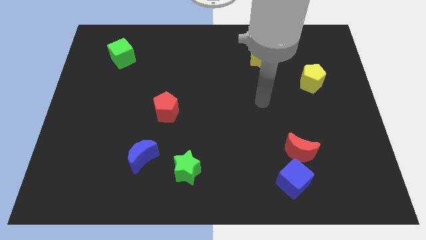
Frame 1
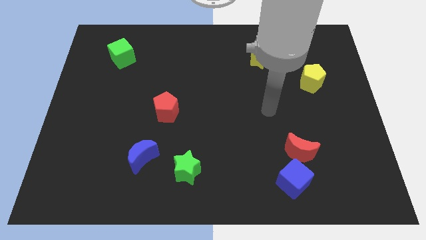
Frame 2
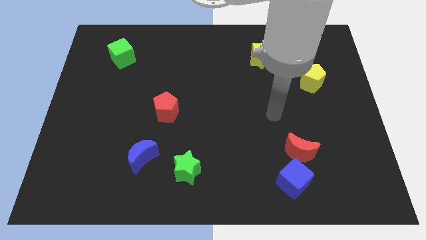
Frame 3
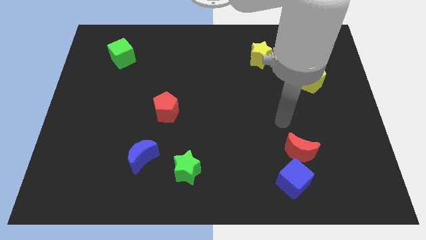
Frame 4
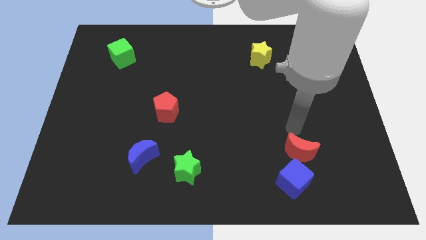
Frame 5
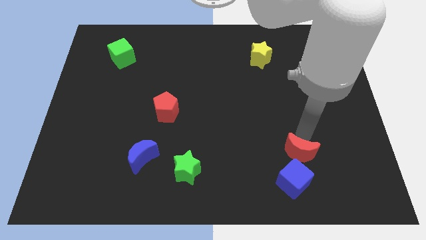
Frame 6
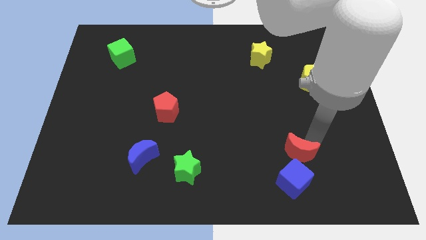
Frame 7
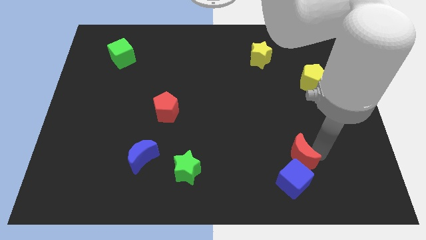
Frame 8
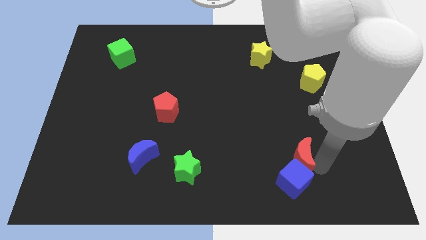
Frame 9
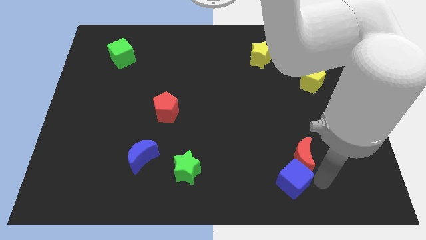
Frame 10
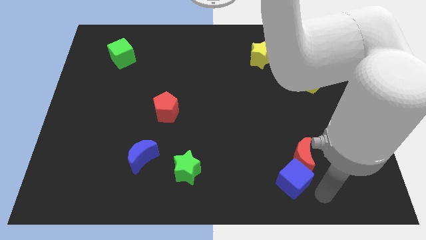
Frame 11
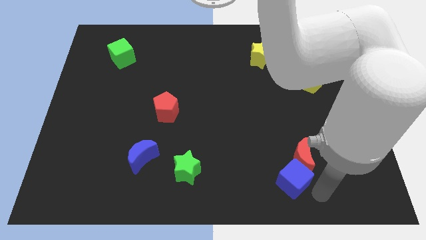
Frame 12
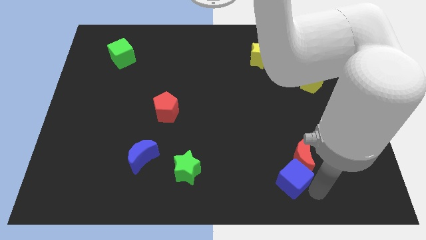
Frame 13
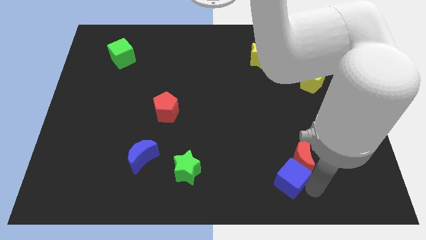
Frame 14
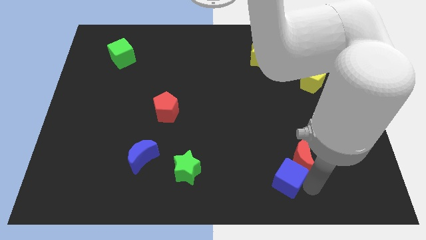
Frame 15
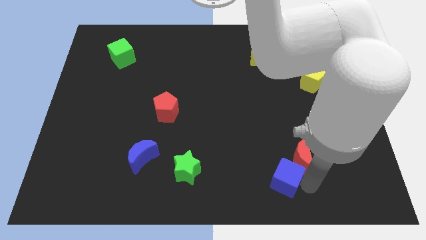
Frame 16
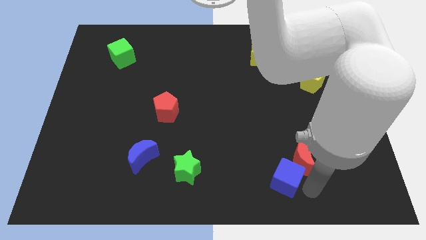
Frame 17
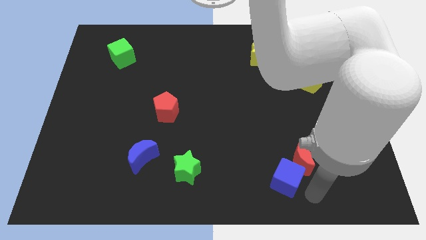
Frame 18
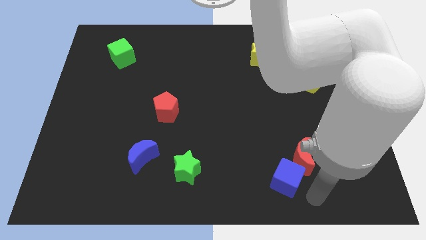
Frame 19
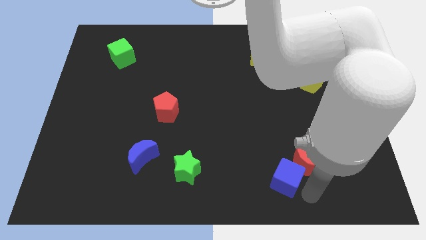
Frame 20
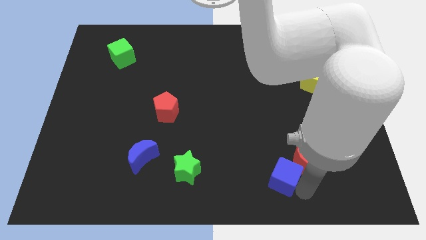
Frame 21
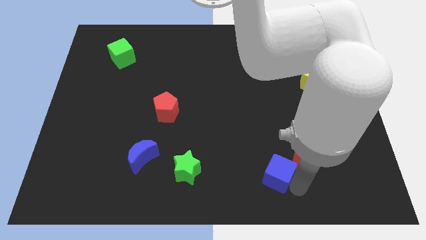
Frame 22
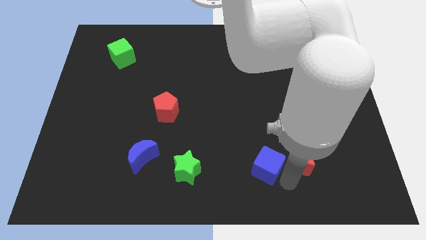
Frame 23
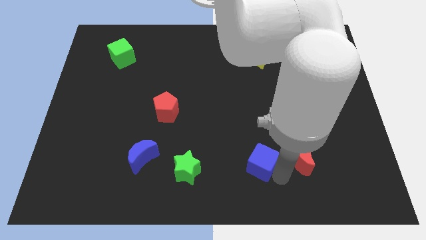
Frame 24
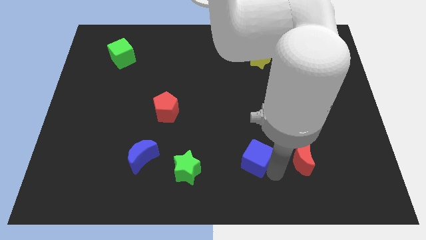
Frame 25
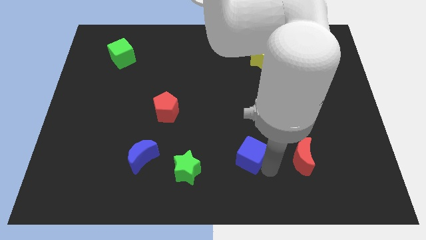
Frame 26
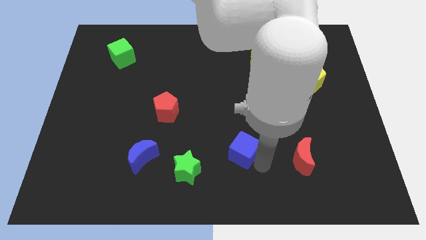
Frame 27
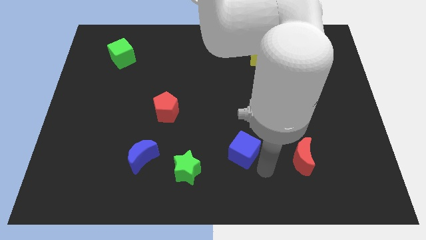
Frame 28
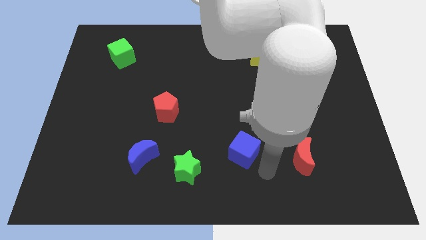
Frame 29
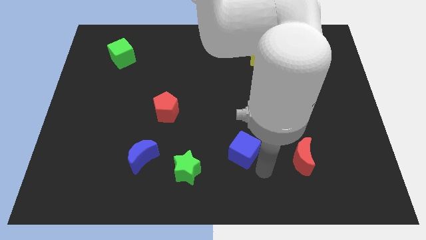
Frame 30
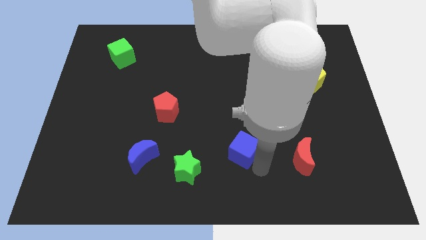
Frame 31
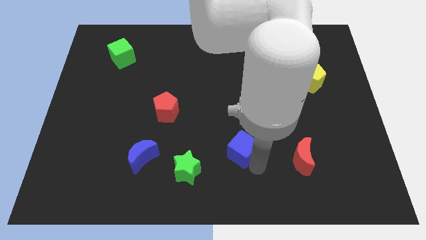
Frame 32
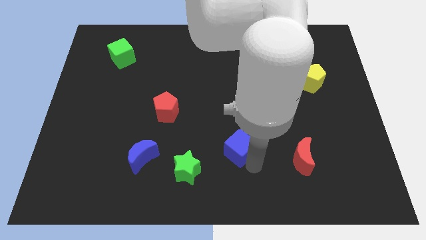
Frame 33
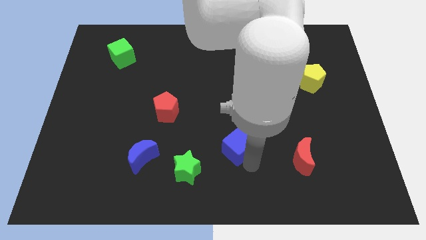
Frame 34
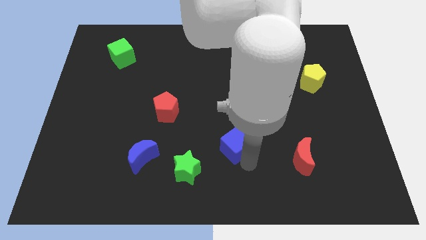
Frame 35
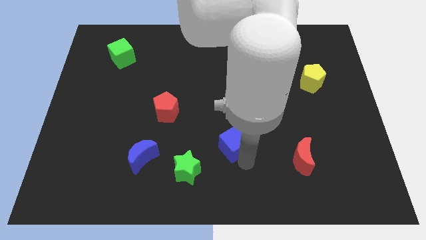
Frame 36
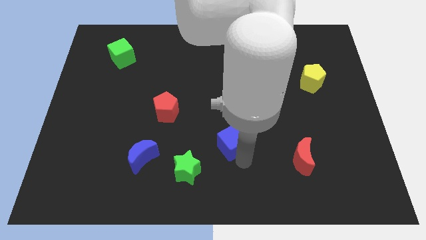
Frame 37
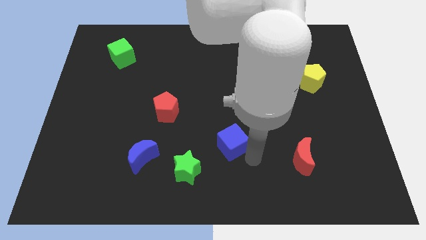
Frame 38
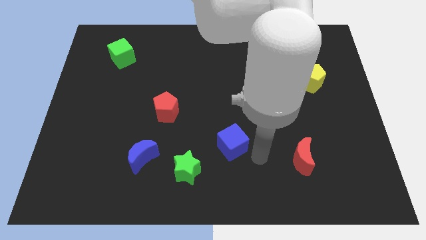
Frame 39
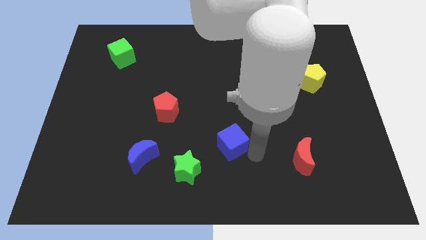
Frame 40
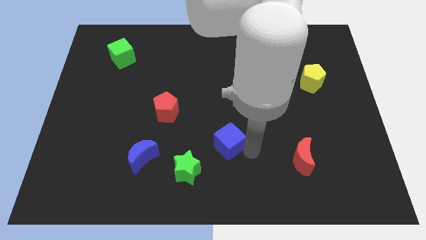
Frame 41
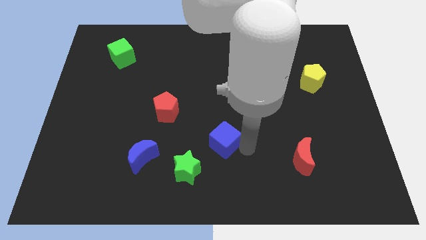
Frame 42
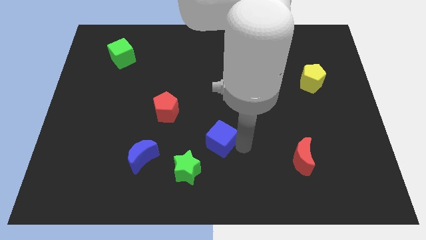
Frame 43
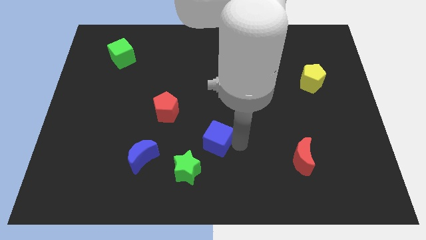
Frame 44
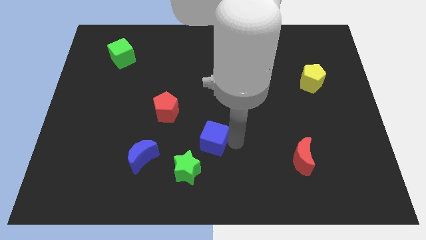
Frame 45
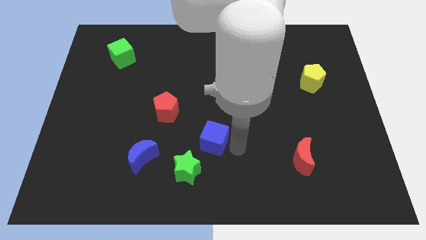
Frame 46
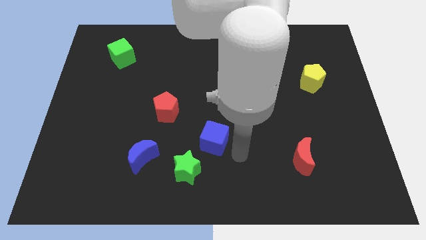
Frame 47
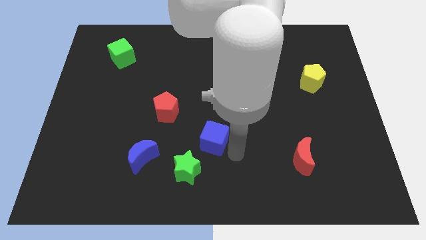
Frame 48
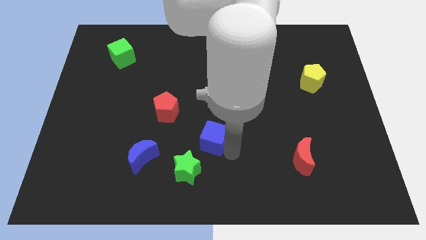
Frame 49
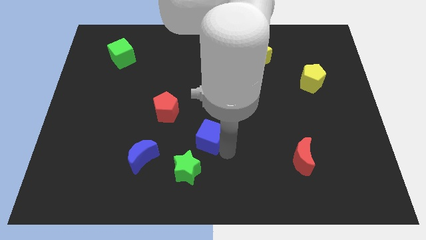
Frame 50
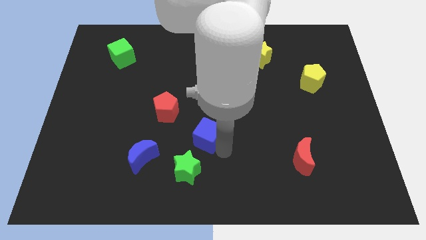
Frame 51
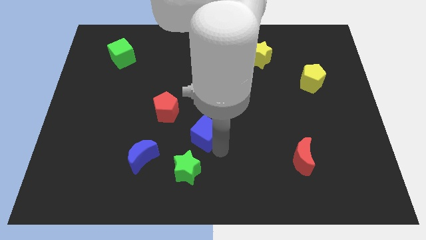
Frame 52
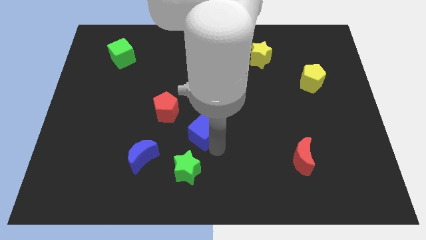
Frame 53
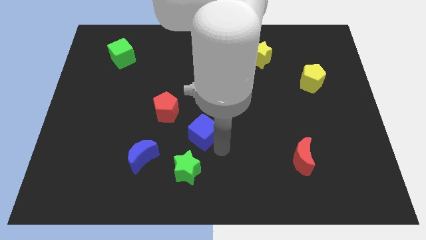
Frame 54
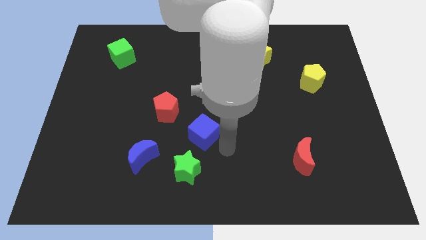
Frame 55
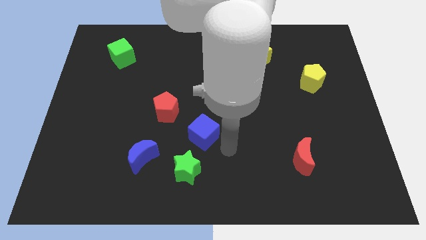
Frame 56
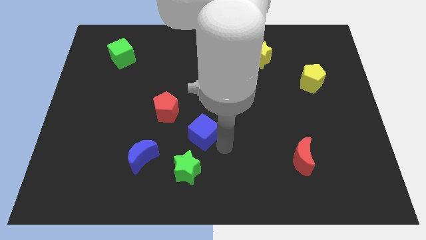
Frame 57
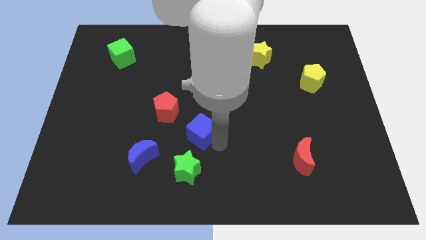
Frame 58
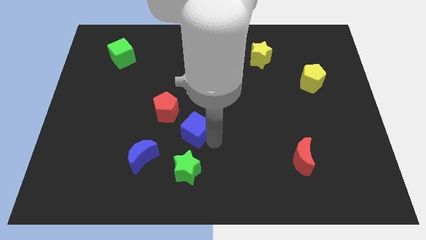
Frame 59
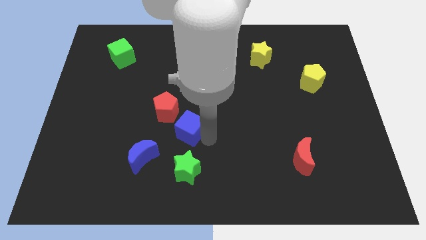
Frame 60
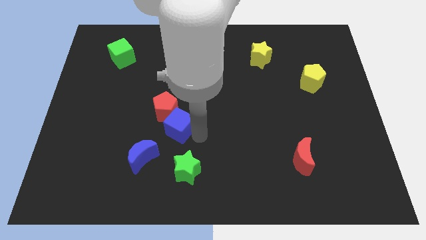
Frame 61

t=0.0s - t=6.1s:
push the blue cube next to the red pentagon
